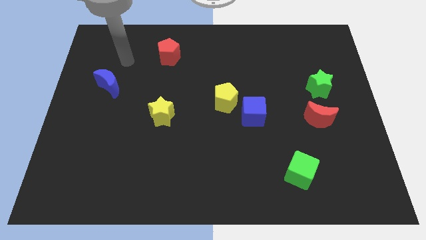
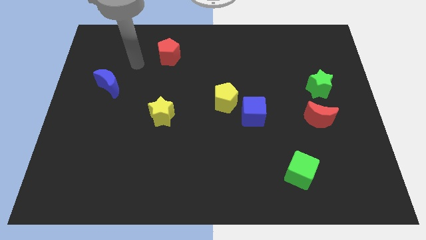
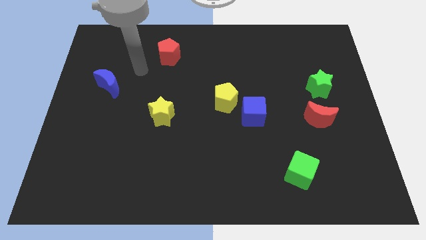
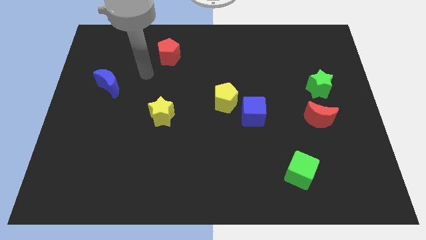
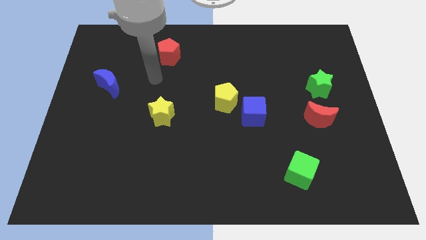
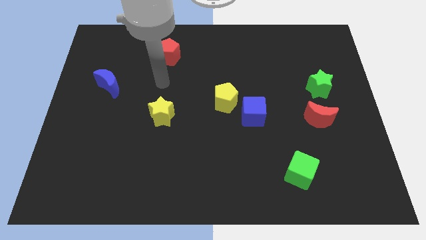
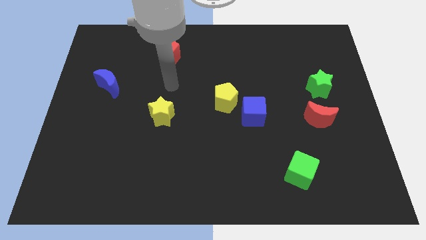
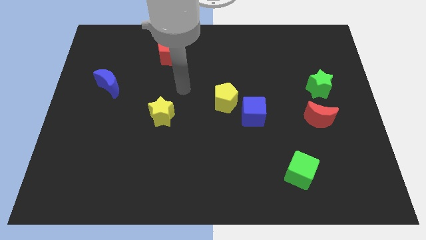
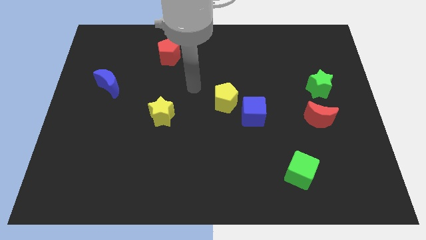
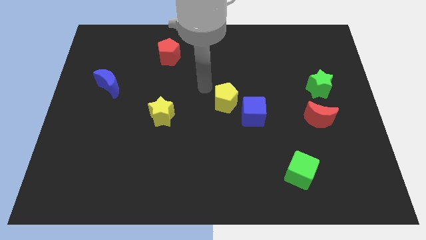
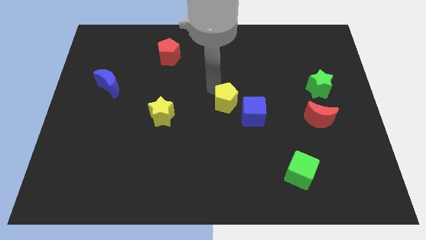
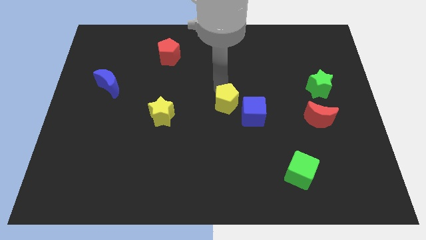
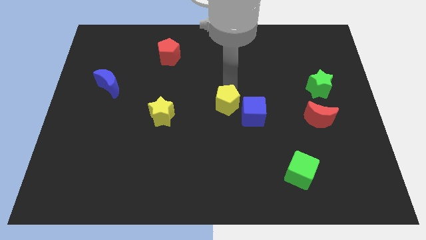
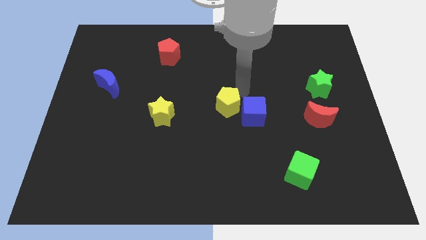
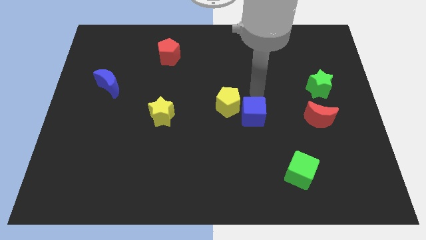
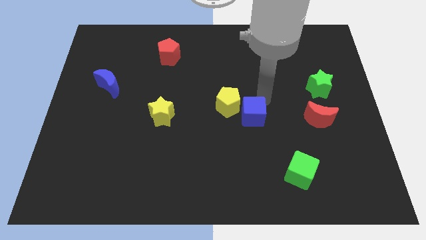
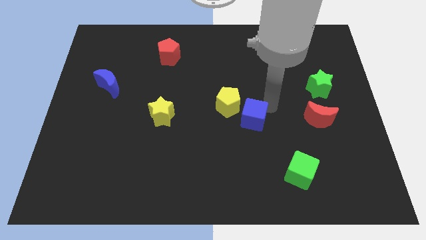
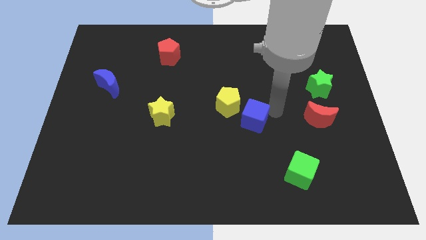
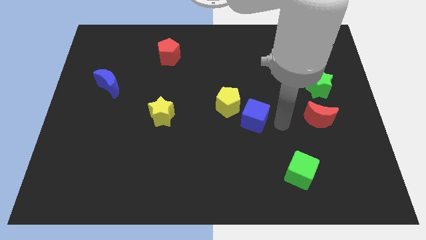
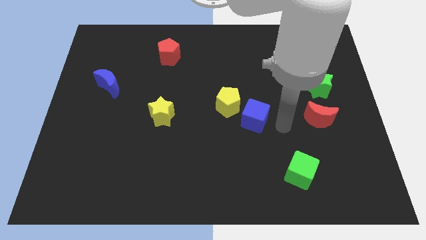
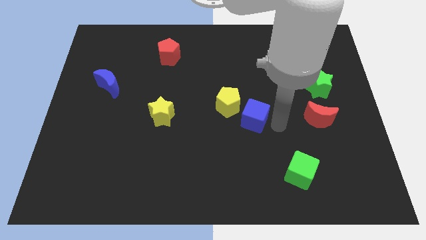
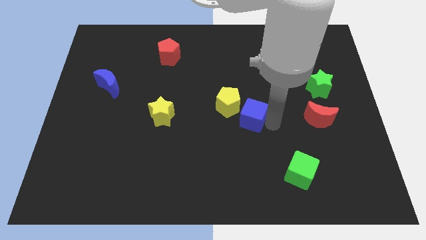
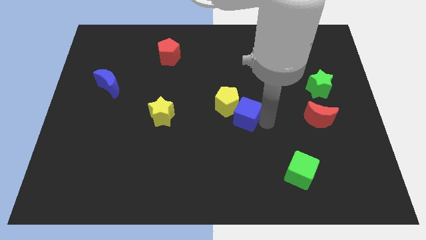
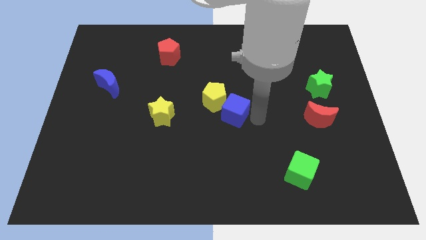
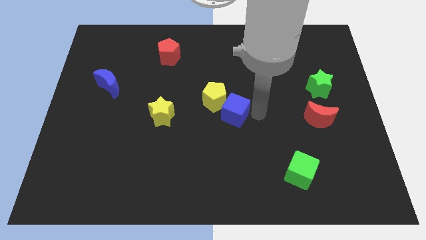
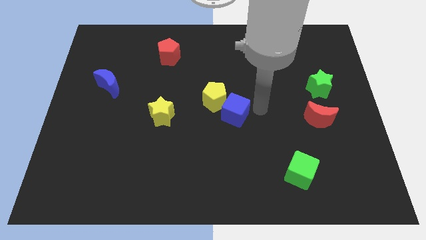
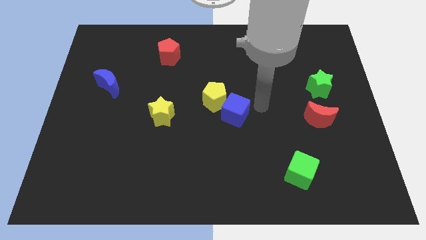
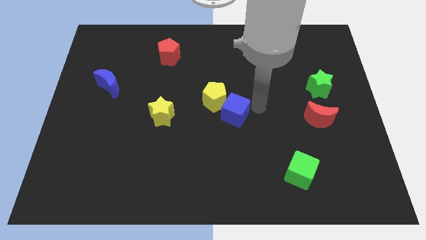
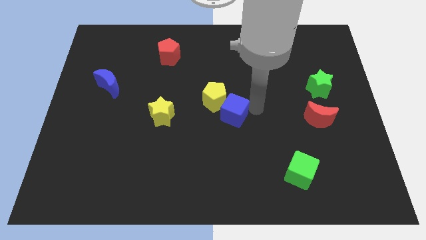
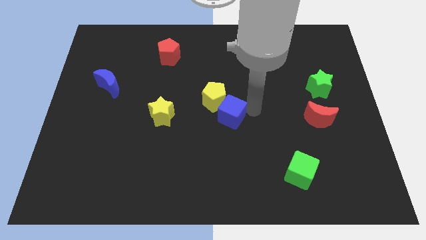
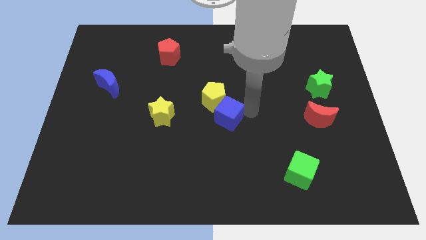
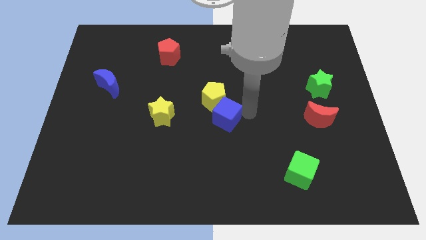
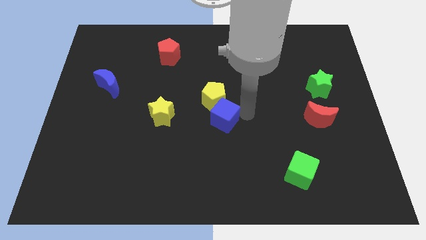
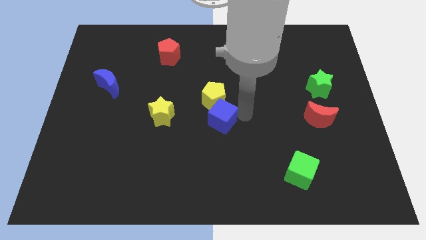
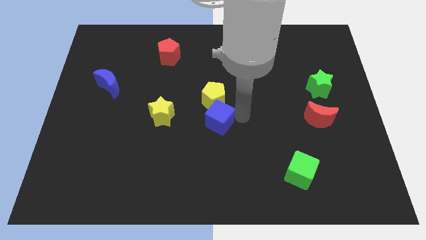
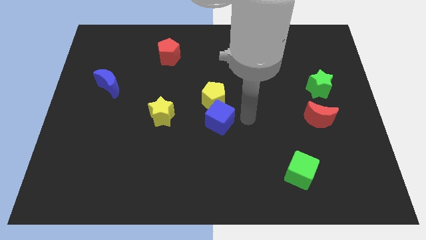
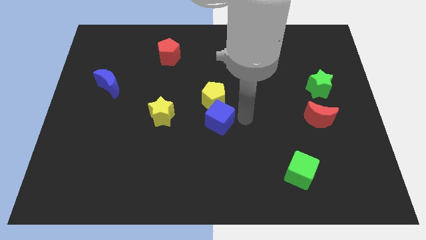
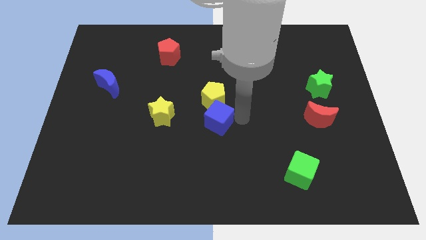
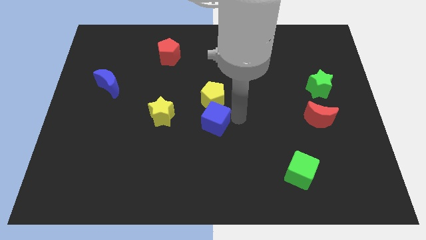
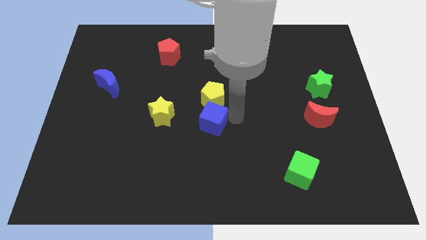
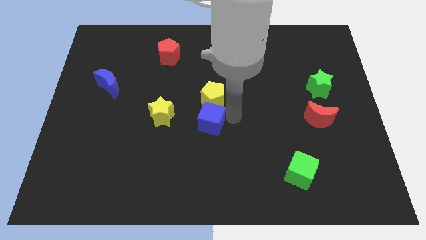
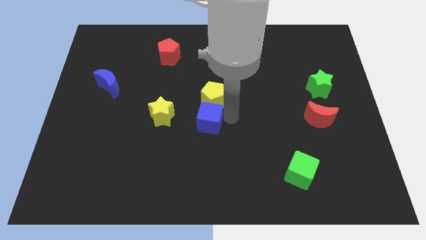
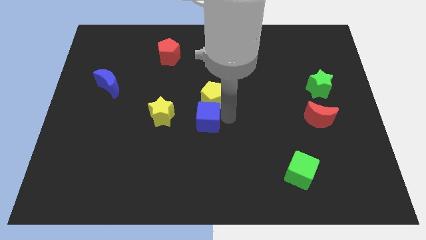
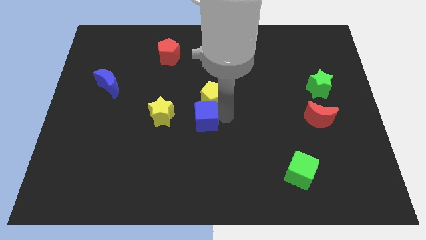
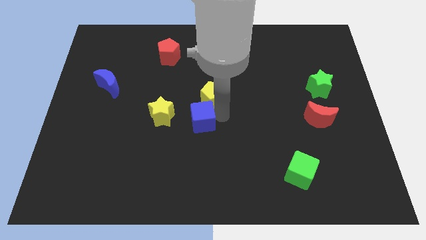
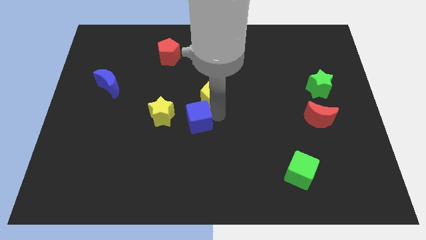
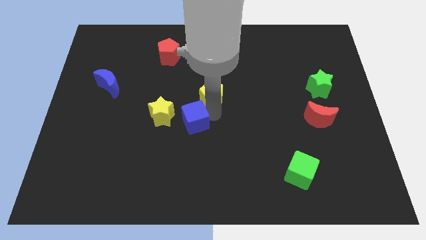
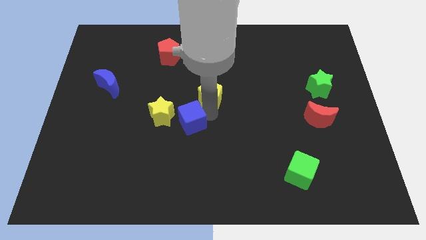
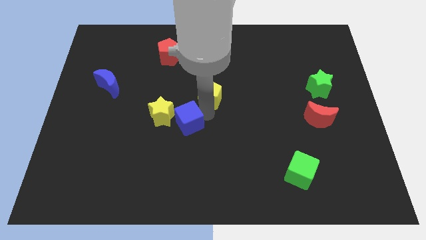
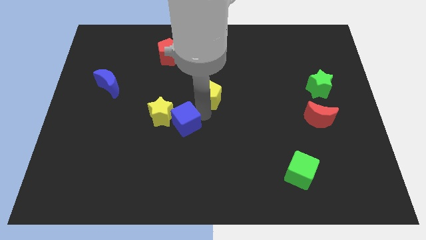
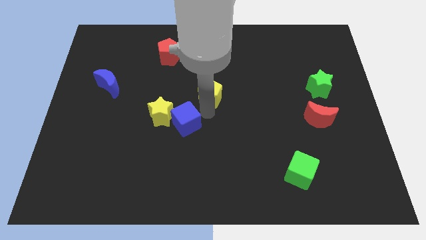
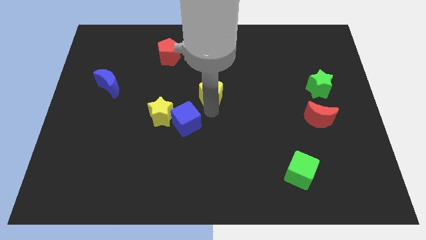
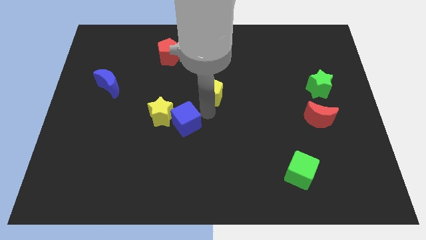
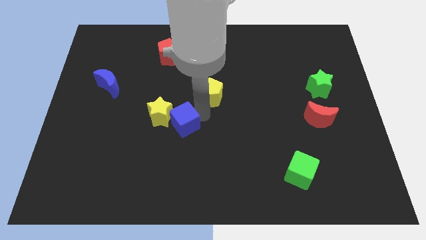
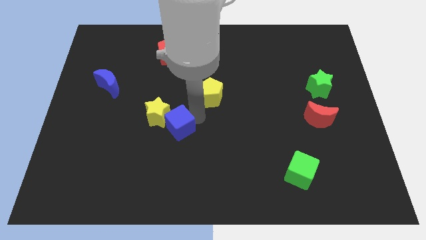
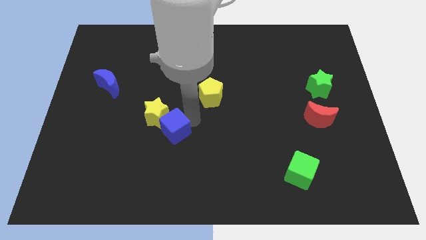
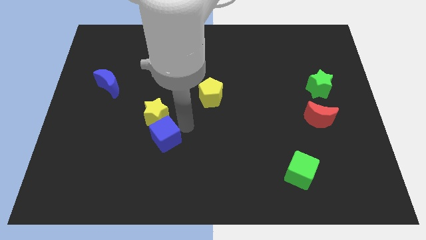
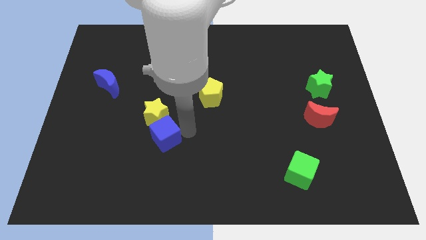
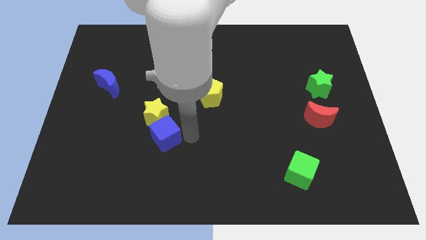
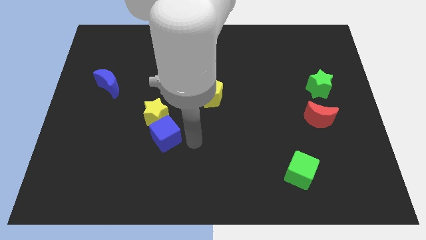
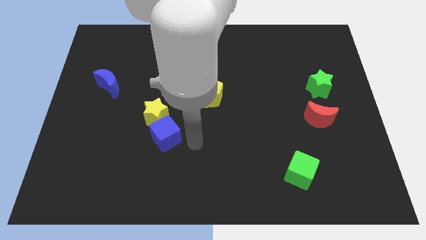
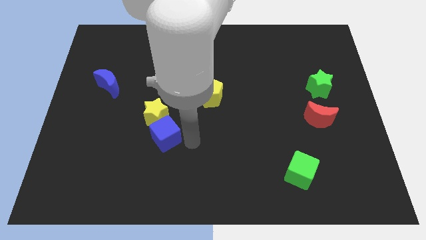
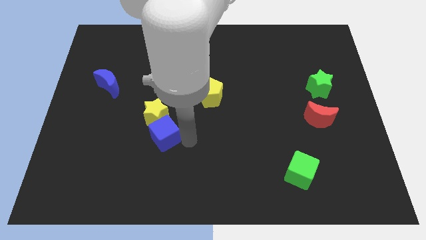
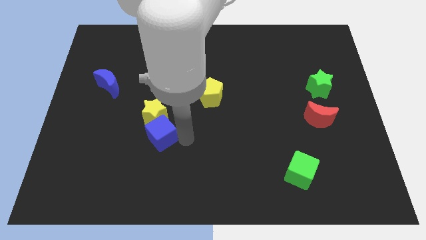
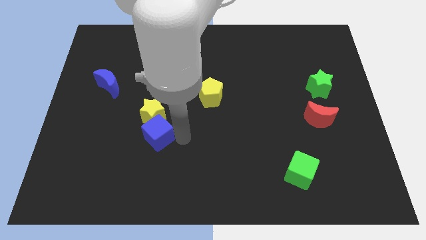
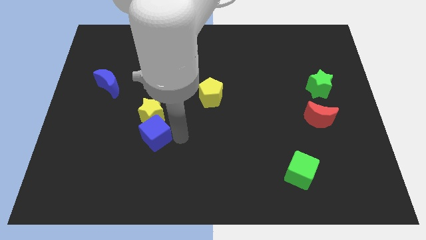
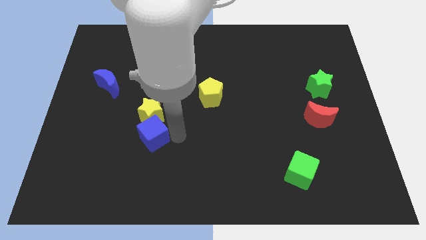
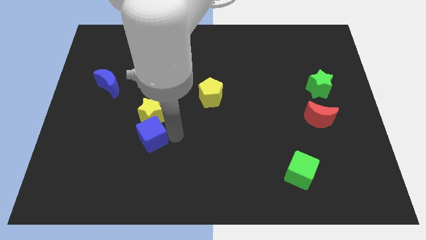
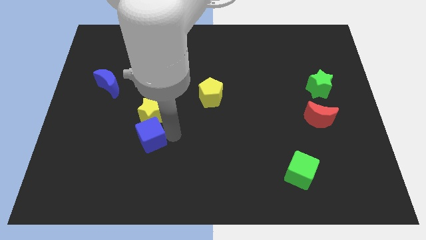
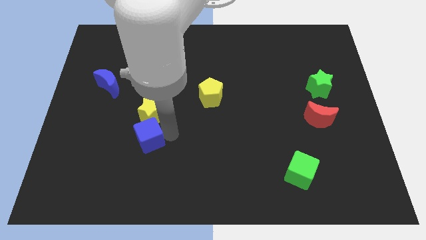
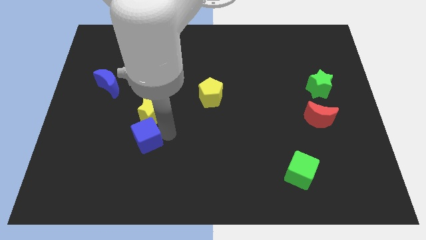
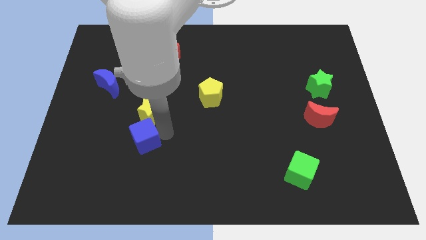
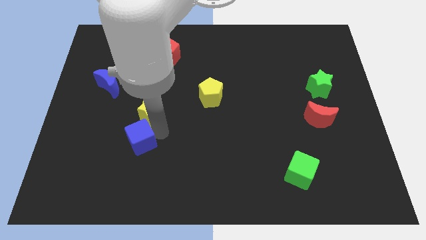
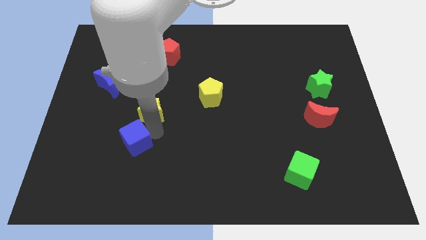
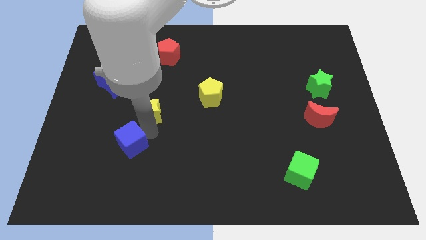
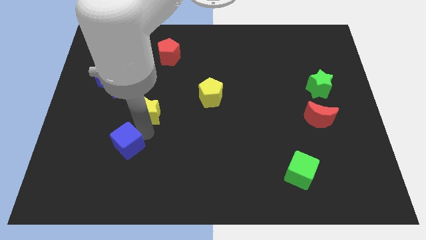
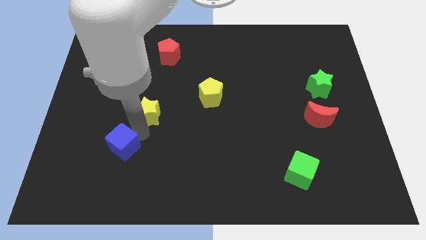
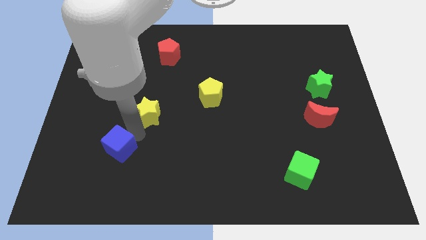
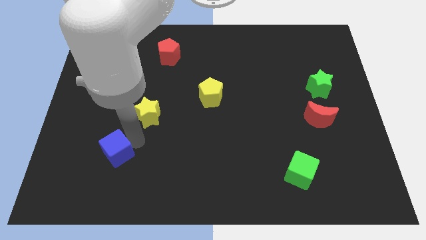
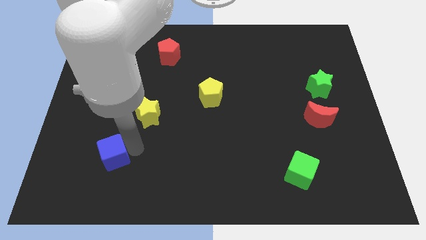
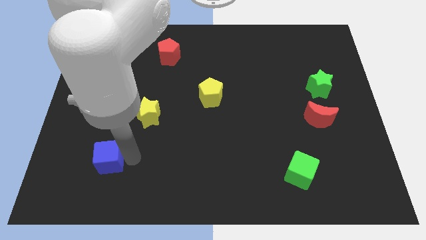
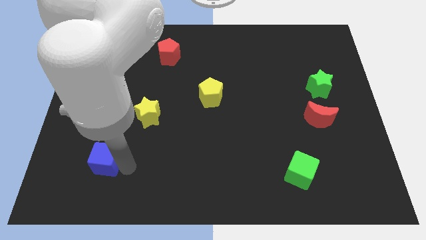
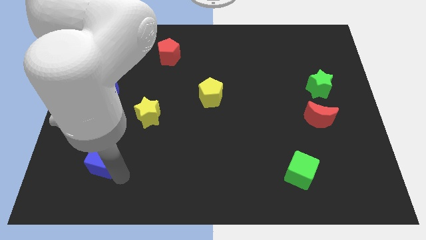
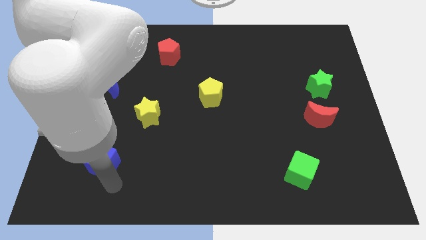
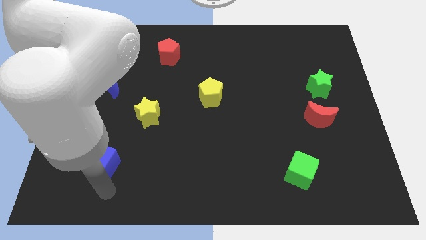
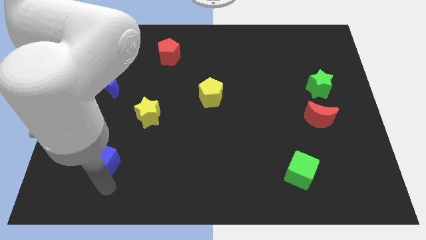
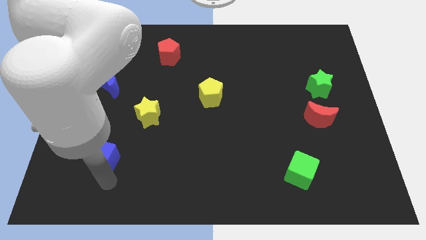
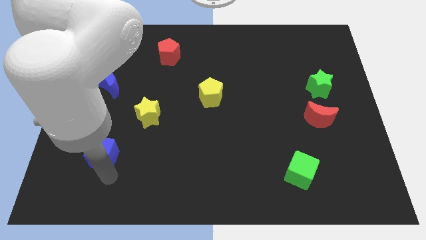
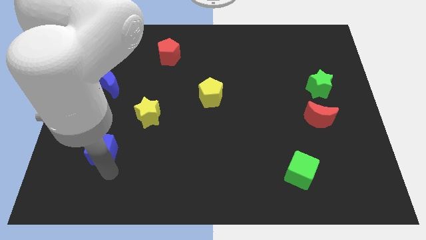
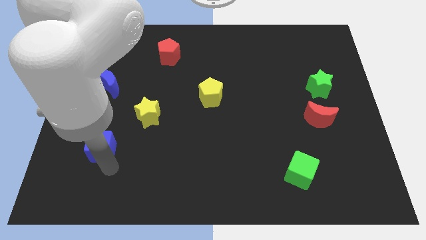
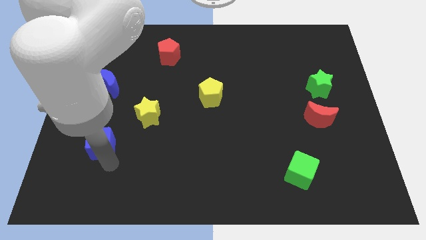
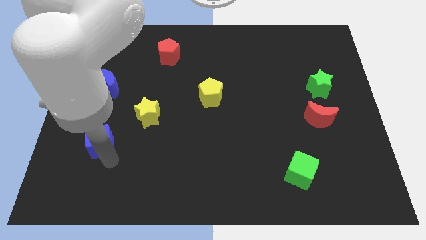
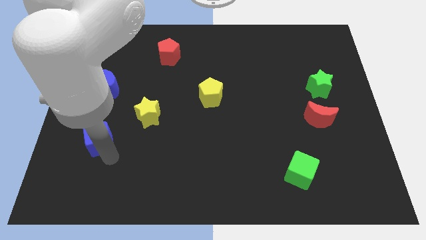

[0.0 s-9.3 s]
slide the blue cube below the blue moon
